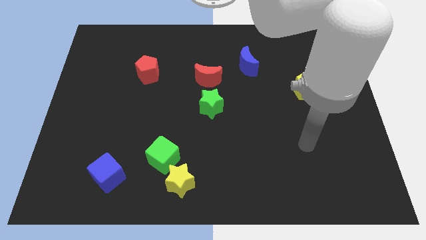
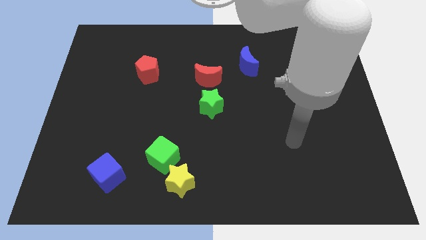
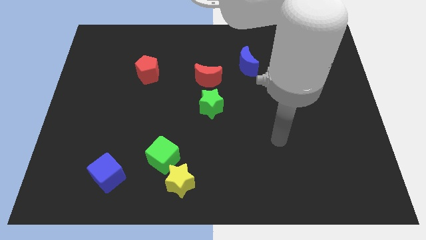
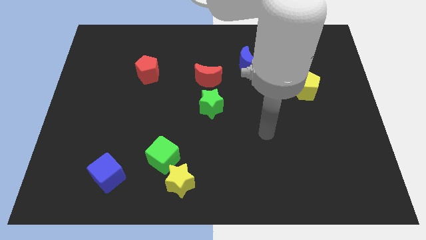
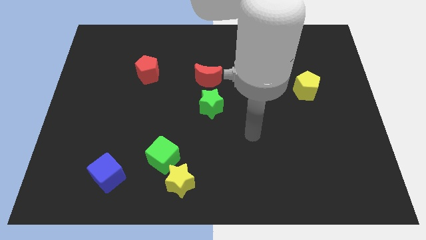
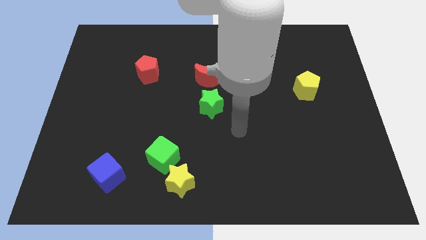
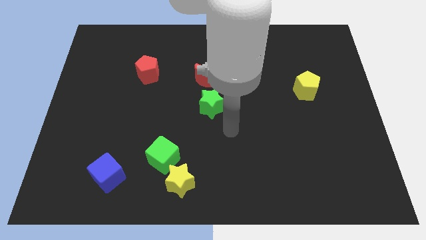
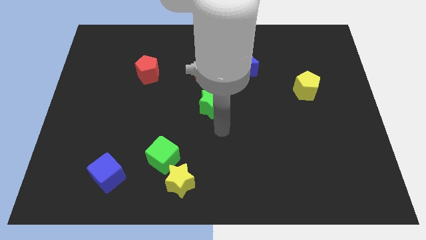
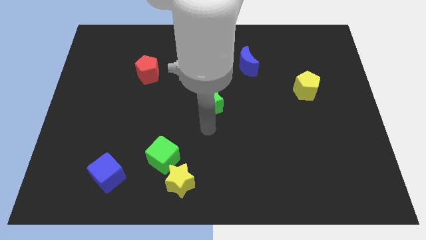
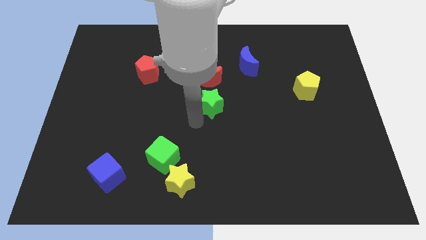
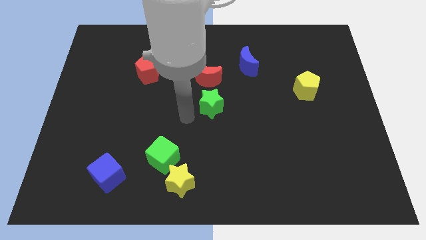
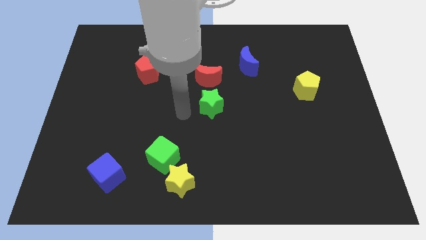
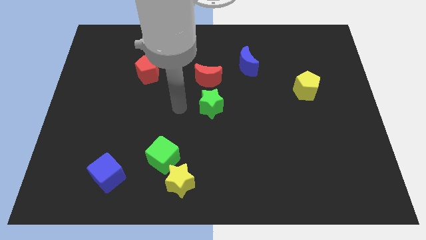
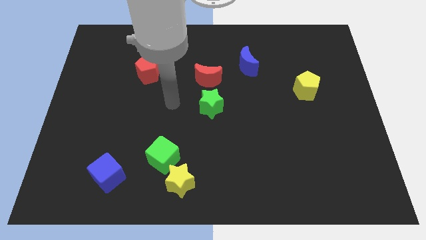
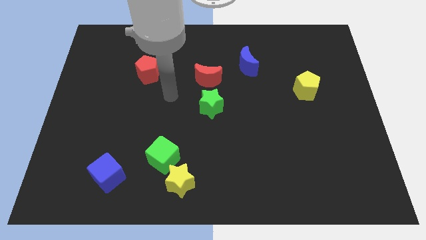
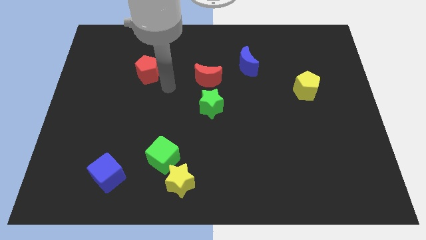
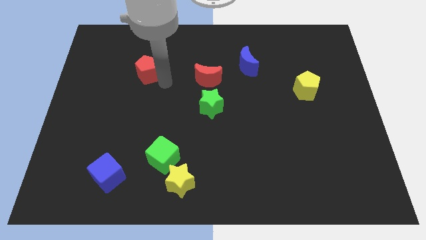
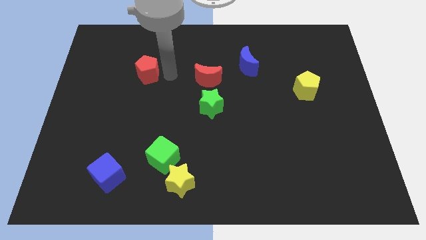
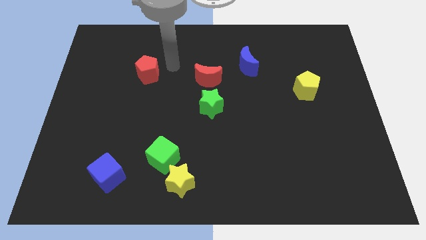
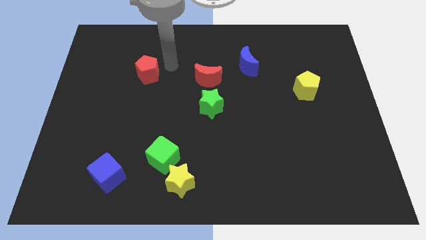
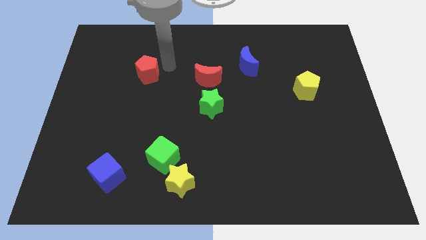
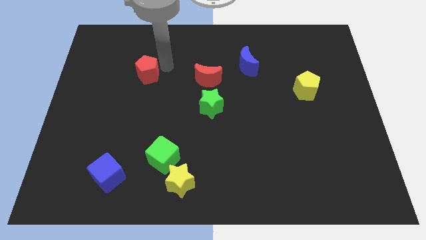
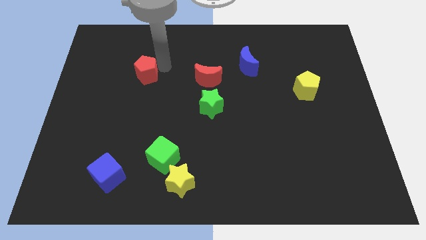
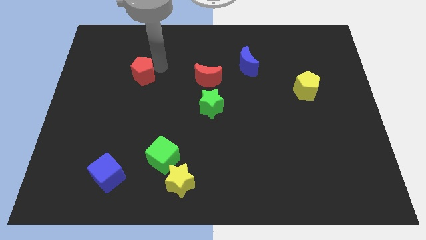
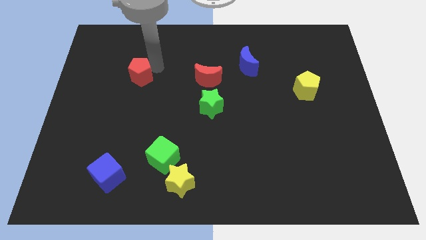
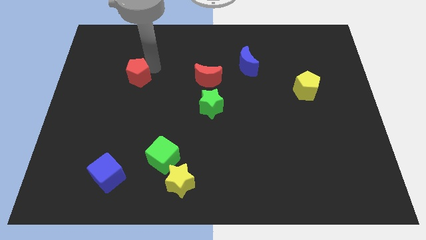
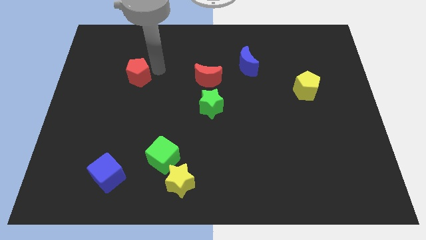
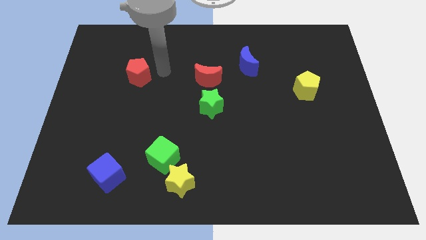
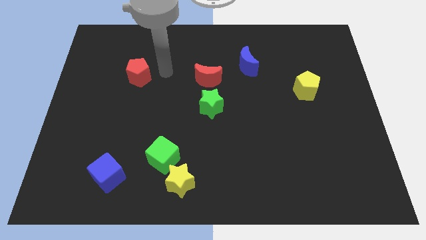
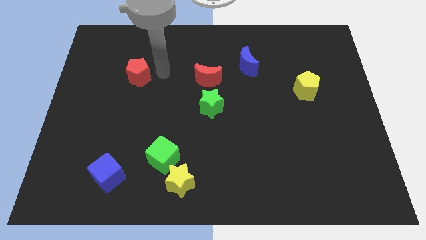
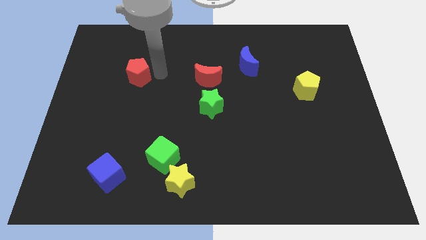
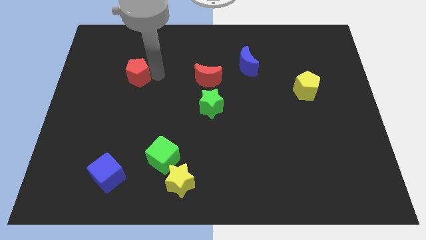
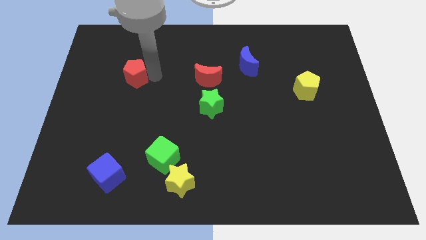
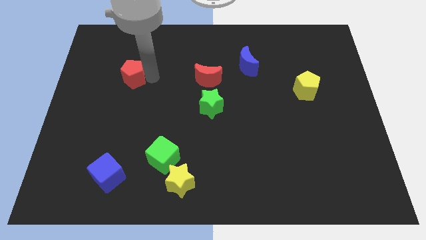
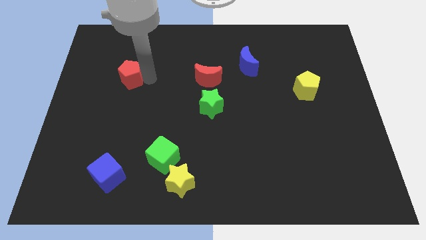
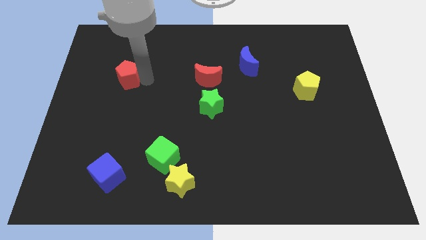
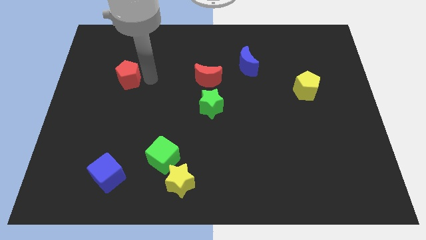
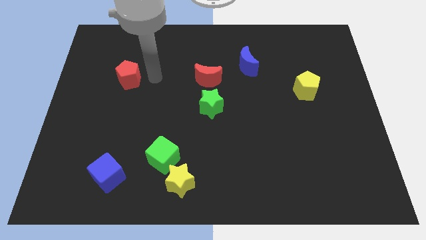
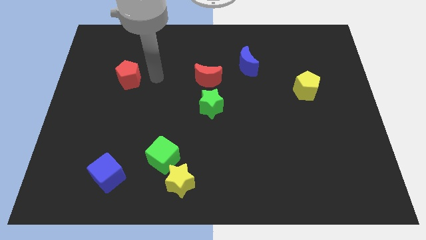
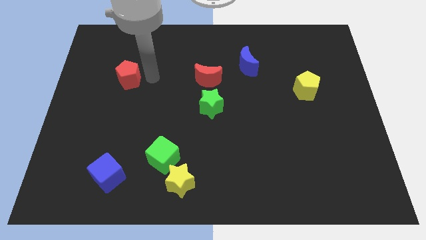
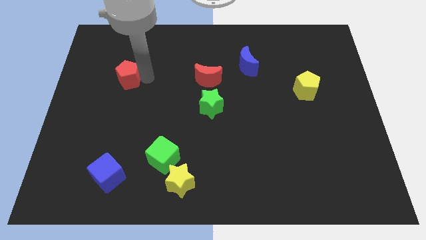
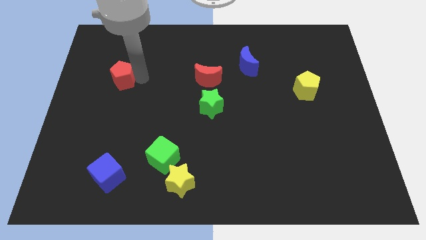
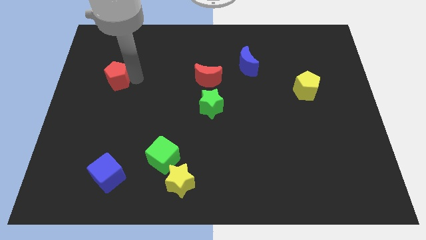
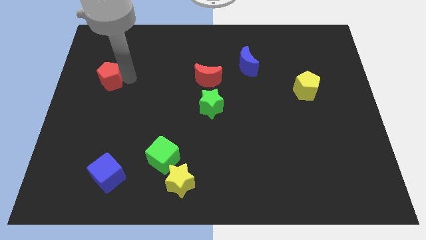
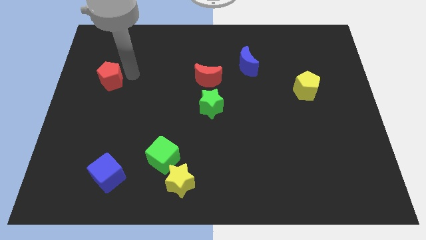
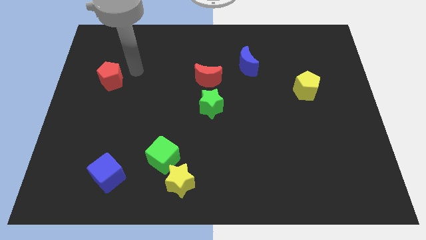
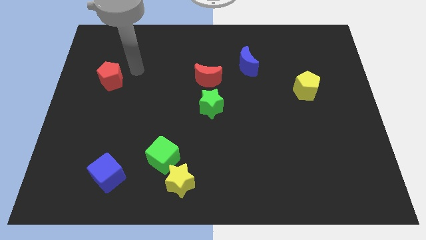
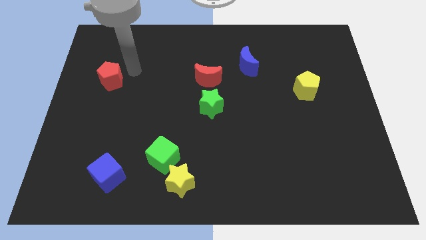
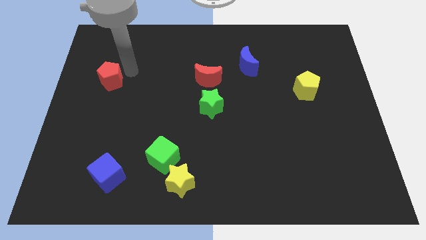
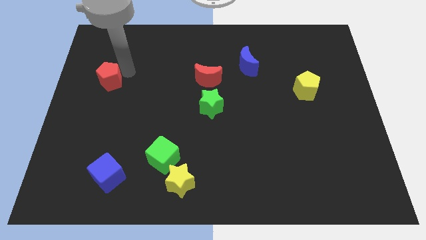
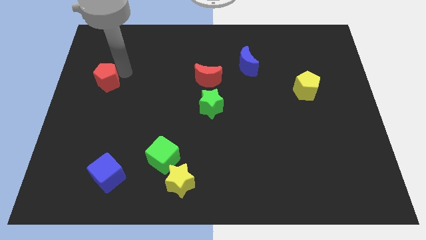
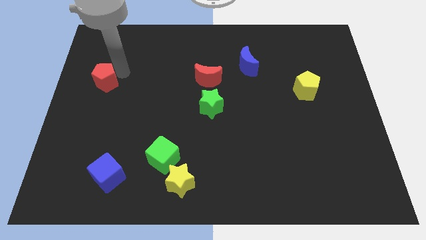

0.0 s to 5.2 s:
push the red pentagon to the left side of the board

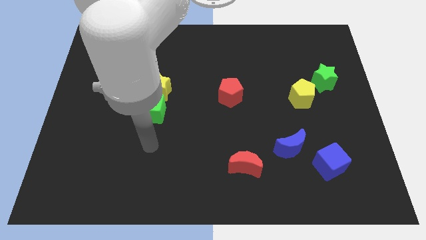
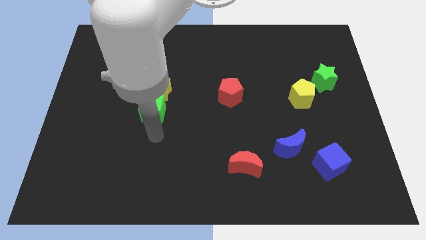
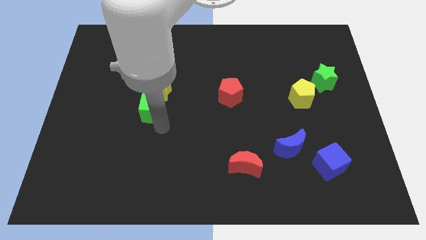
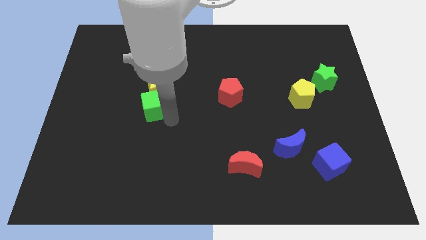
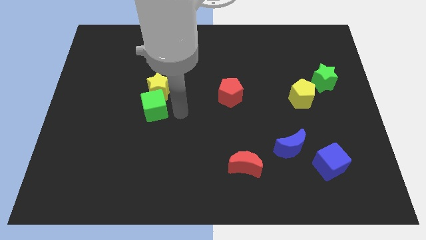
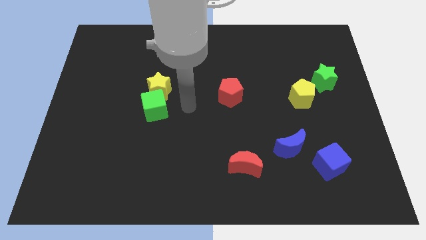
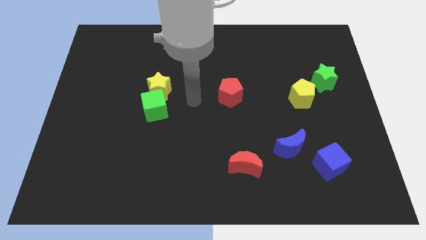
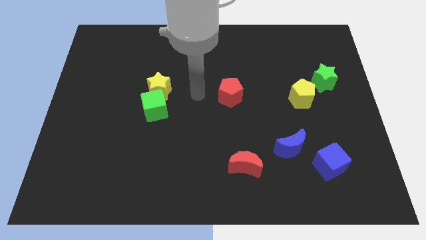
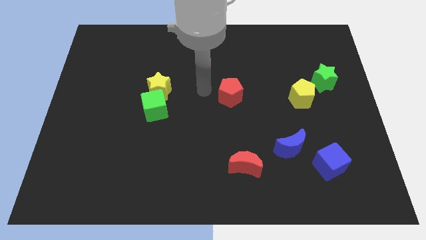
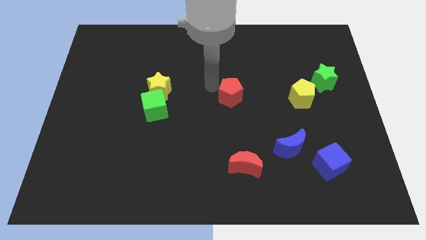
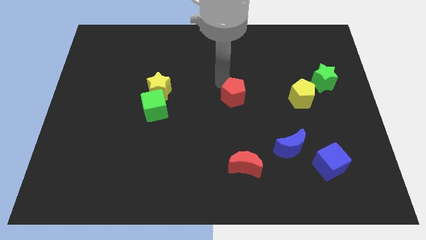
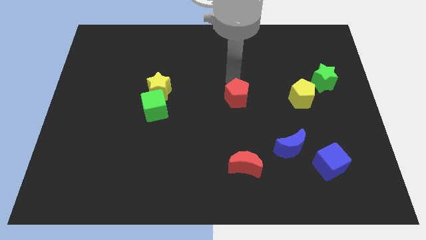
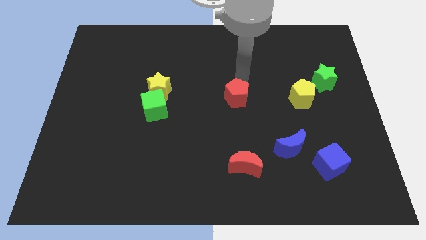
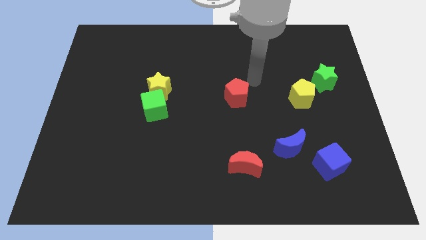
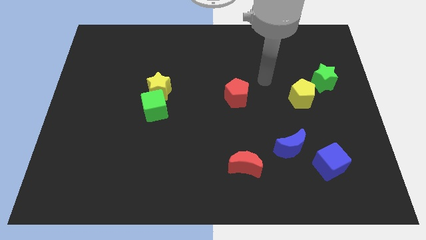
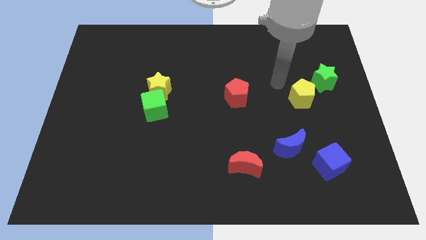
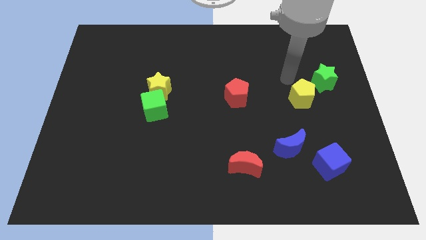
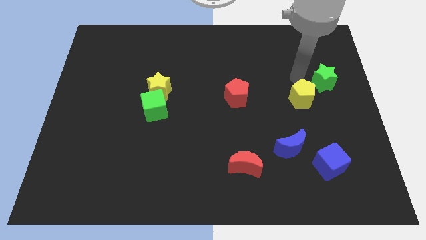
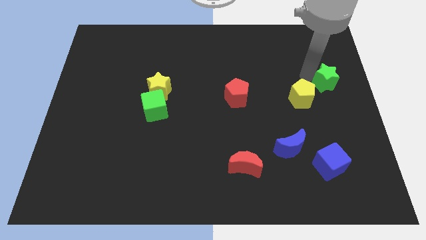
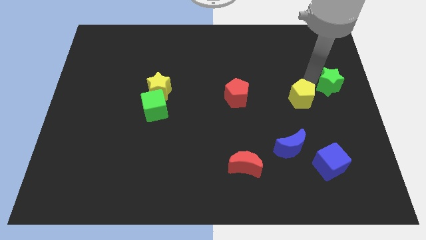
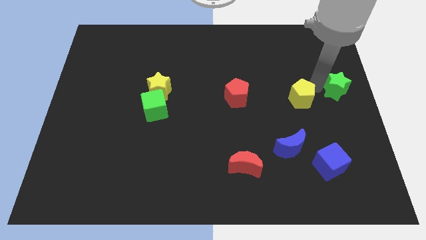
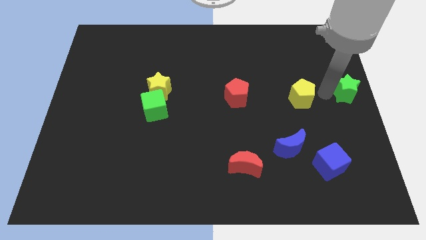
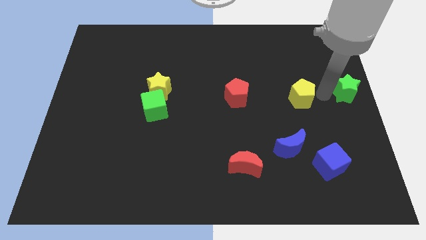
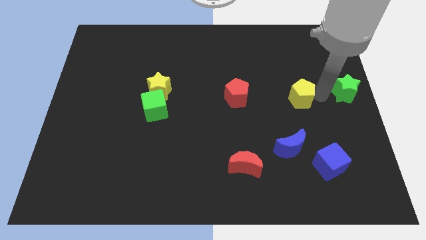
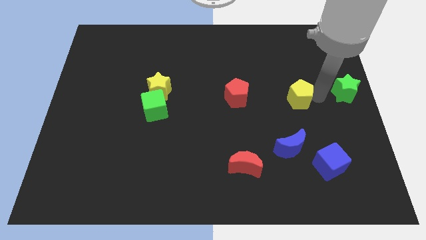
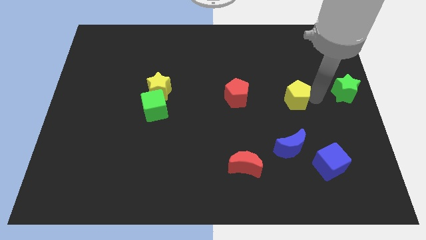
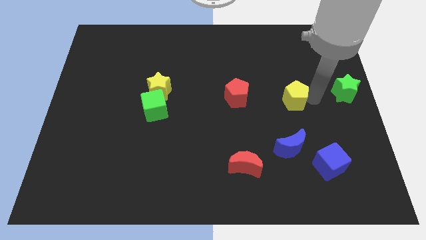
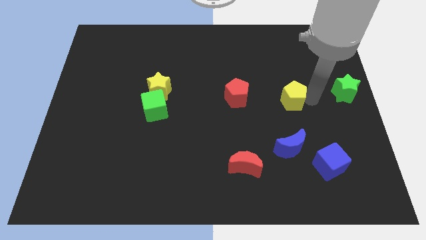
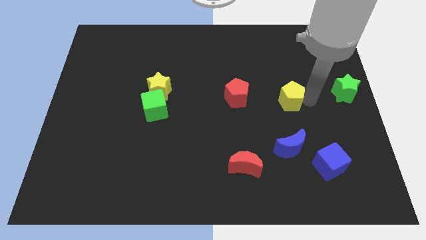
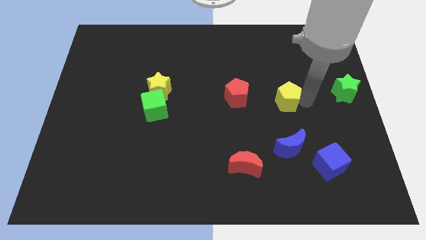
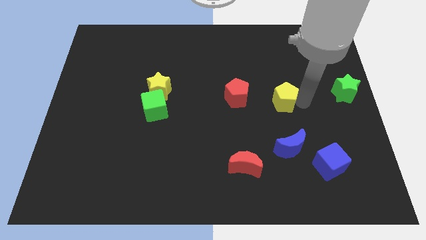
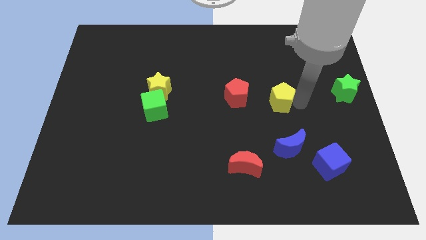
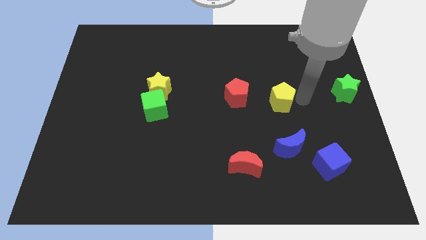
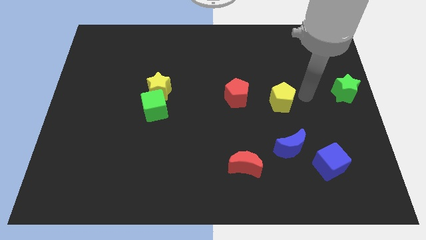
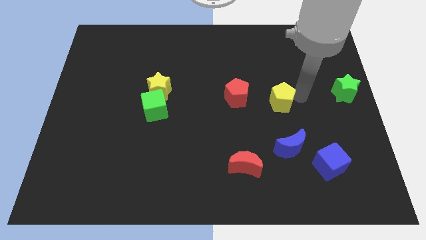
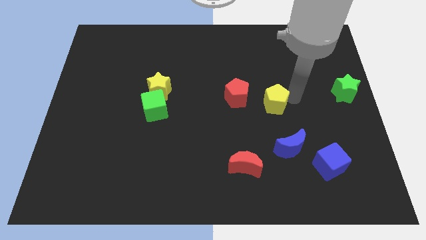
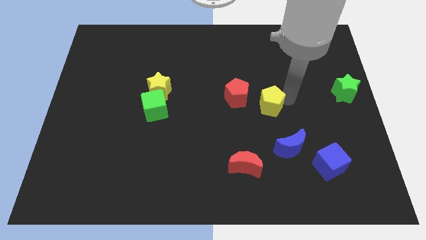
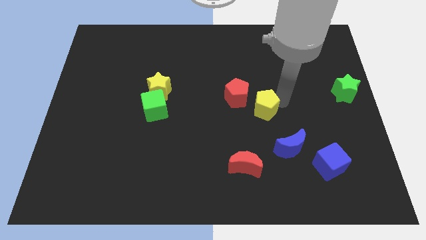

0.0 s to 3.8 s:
push the yellow pentagon to the center
